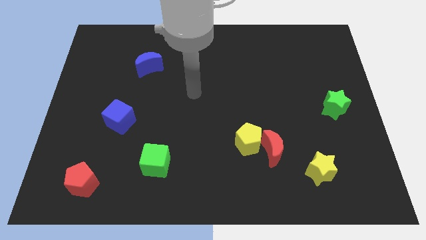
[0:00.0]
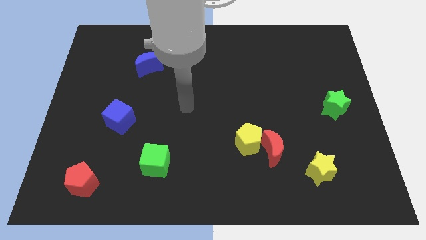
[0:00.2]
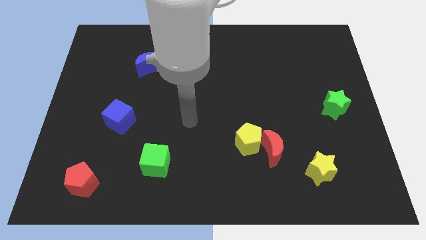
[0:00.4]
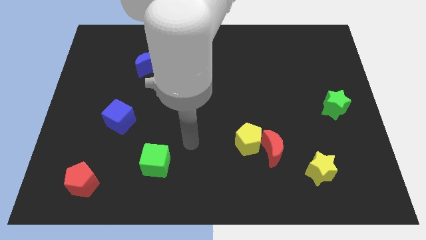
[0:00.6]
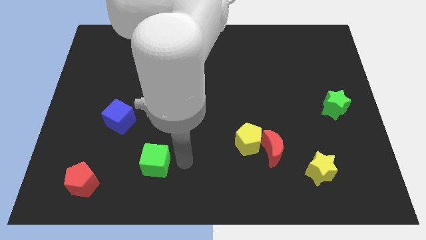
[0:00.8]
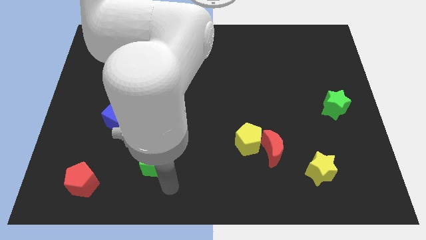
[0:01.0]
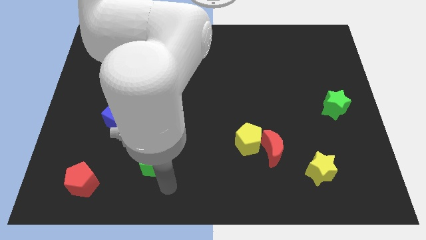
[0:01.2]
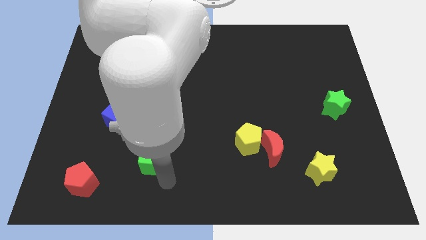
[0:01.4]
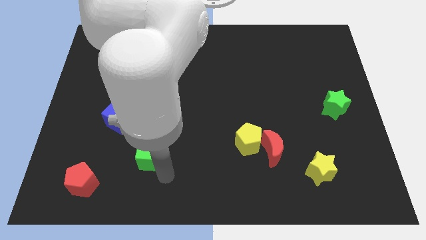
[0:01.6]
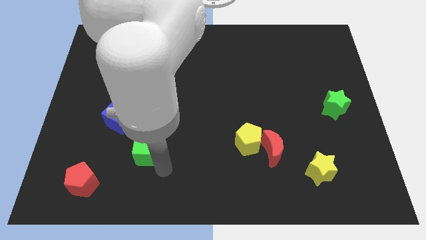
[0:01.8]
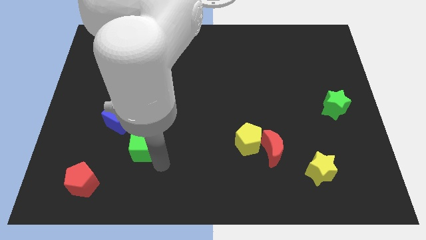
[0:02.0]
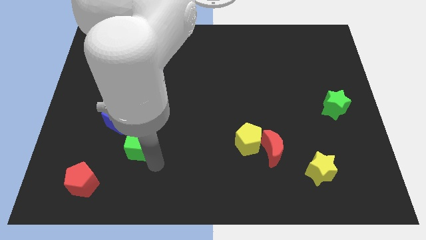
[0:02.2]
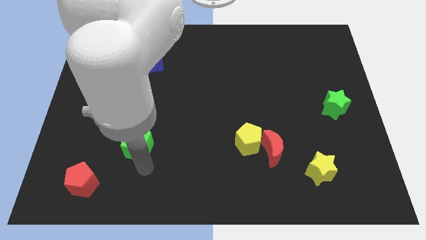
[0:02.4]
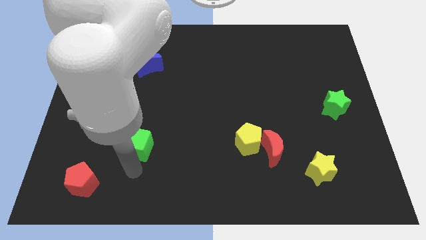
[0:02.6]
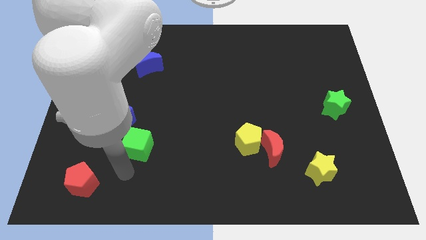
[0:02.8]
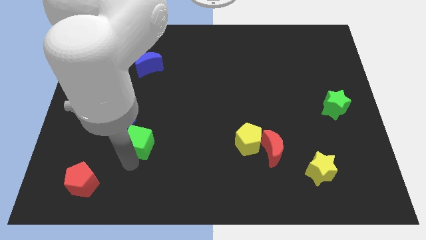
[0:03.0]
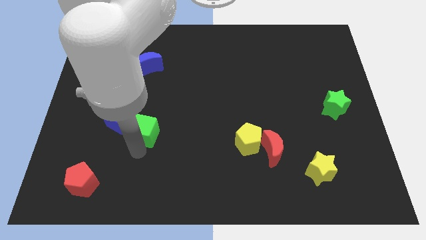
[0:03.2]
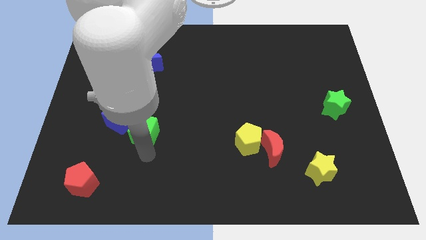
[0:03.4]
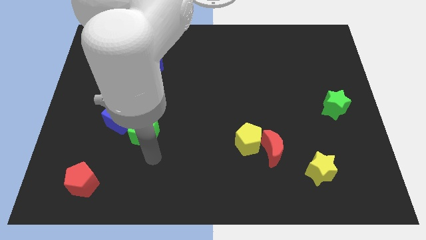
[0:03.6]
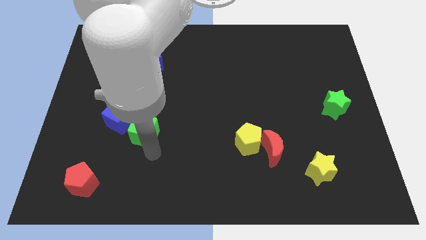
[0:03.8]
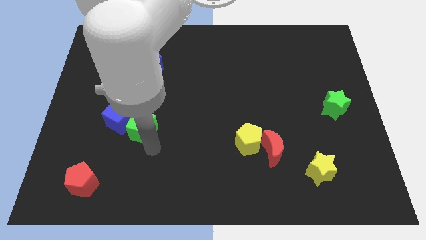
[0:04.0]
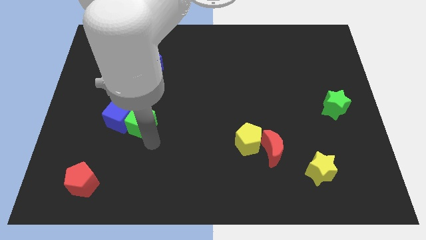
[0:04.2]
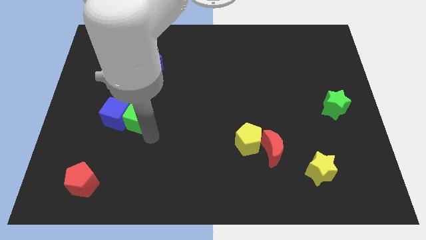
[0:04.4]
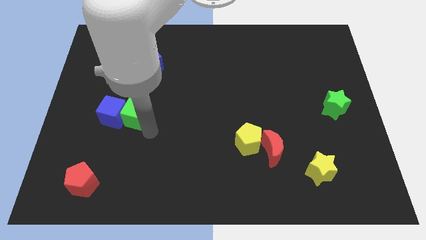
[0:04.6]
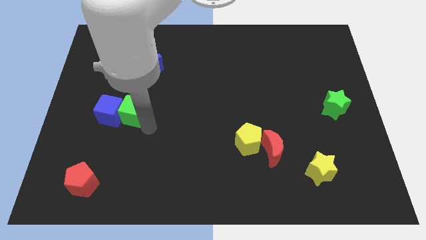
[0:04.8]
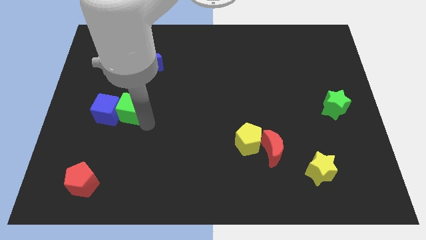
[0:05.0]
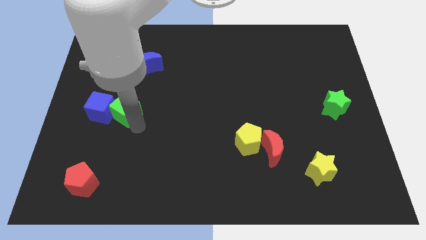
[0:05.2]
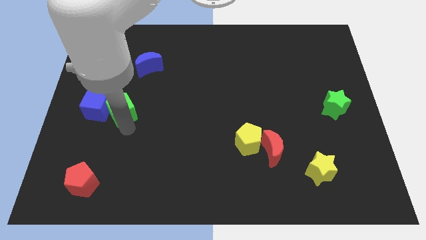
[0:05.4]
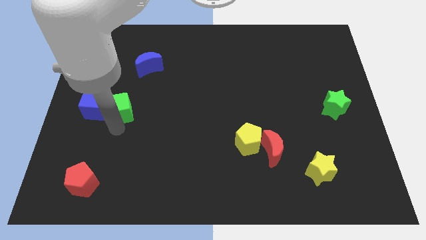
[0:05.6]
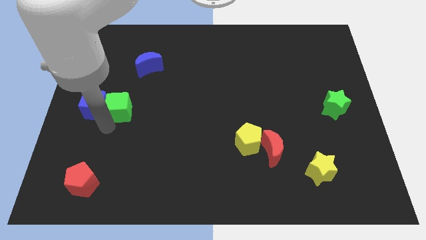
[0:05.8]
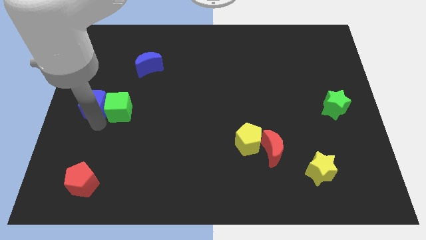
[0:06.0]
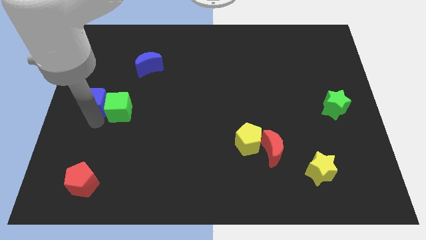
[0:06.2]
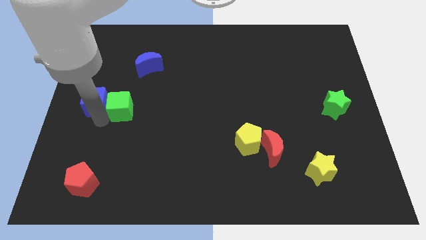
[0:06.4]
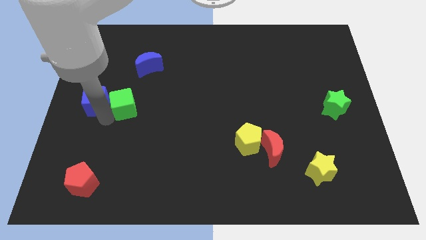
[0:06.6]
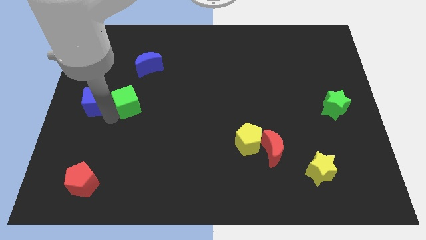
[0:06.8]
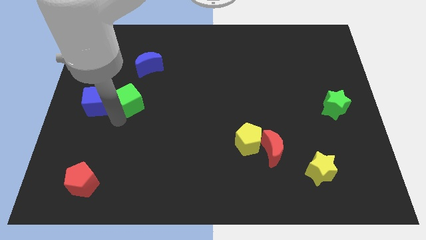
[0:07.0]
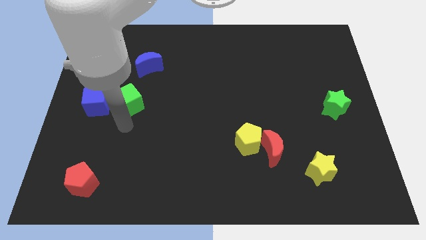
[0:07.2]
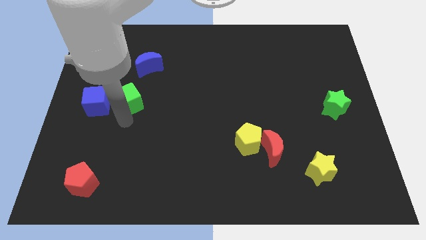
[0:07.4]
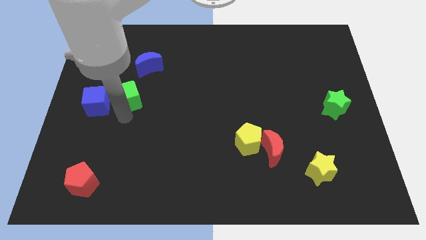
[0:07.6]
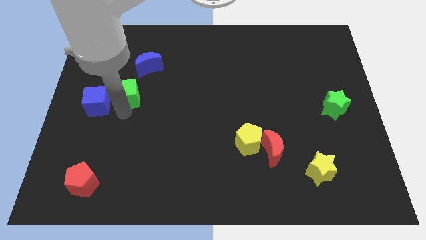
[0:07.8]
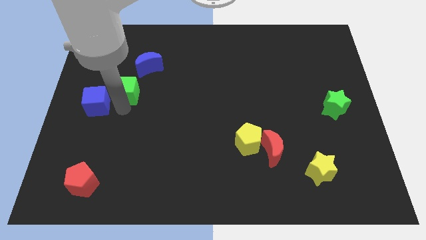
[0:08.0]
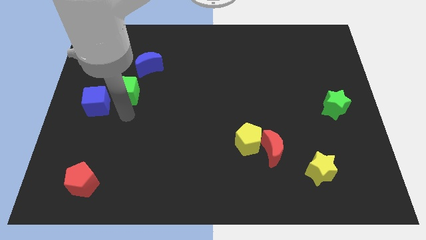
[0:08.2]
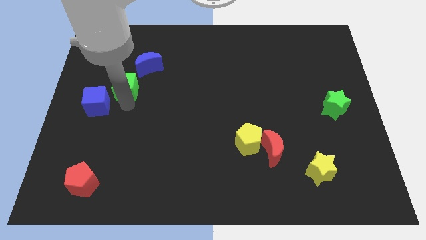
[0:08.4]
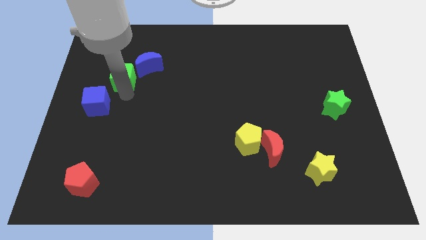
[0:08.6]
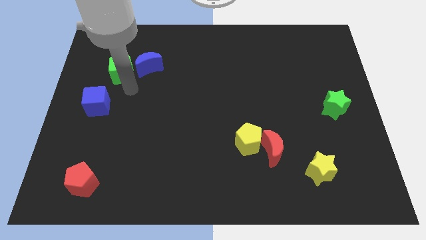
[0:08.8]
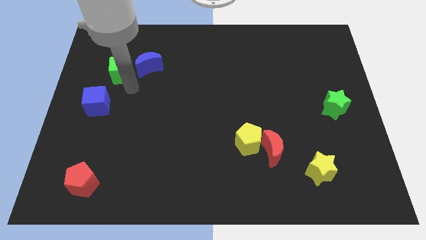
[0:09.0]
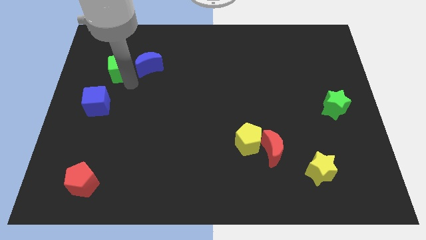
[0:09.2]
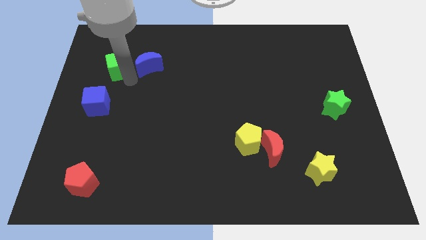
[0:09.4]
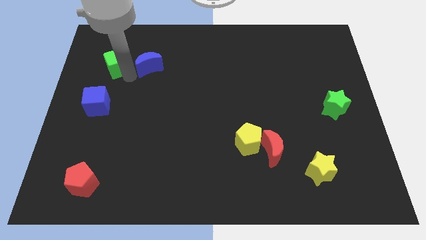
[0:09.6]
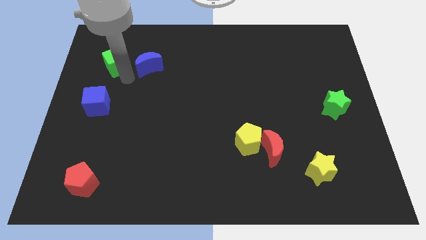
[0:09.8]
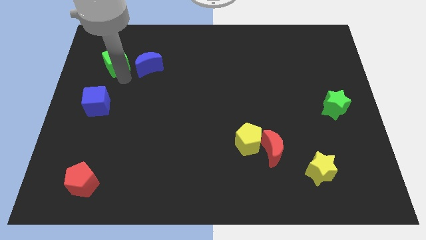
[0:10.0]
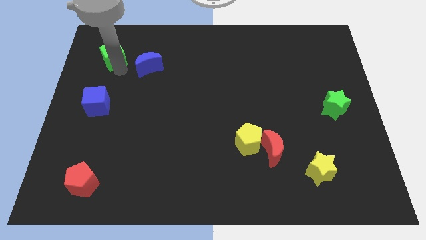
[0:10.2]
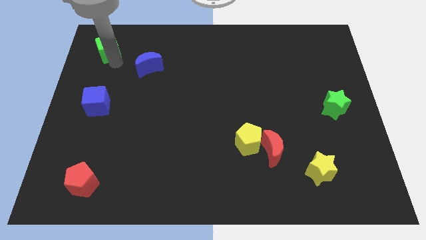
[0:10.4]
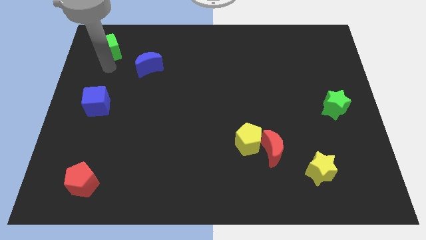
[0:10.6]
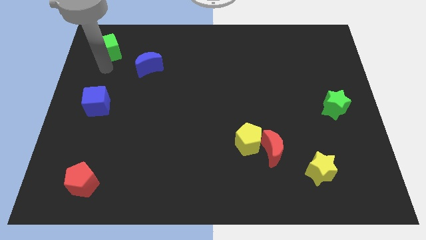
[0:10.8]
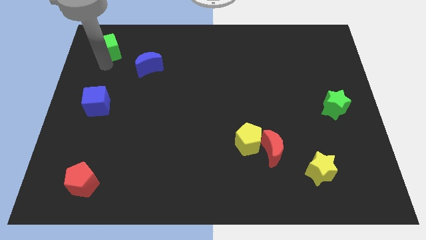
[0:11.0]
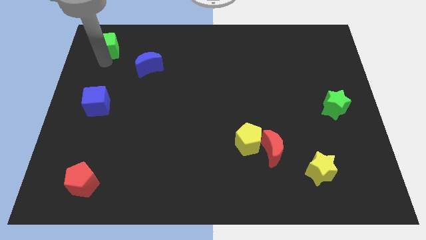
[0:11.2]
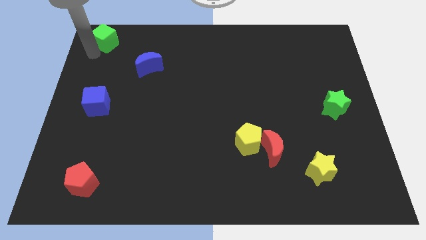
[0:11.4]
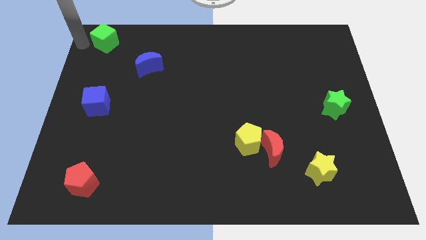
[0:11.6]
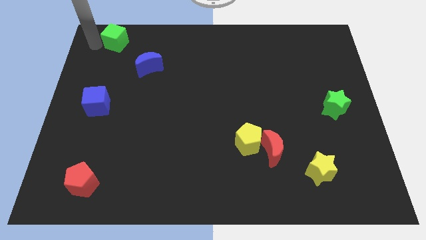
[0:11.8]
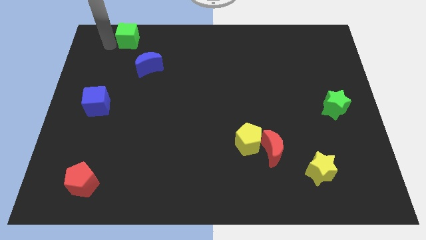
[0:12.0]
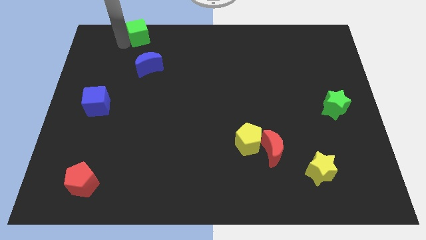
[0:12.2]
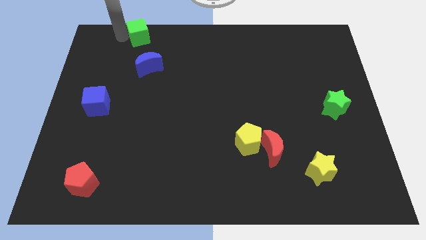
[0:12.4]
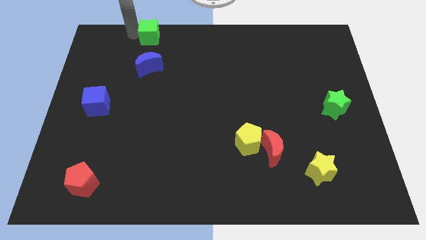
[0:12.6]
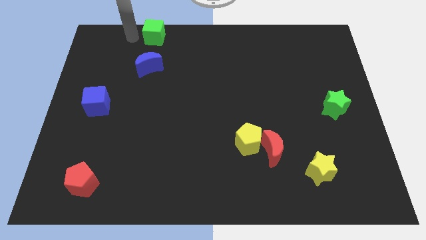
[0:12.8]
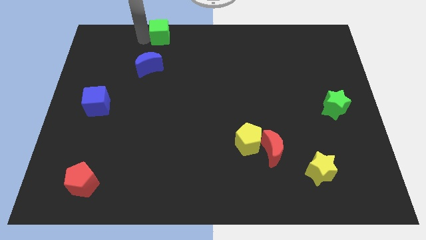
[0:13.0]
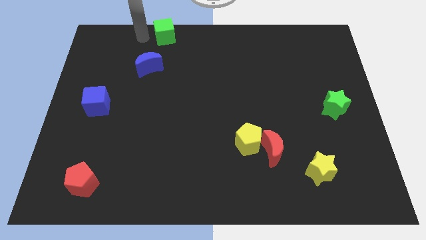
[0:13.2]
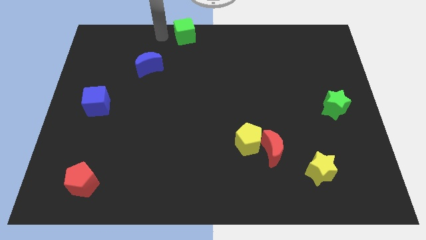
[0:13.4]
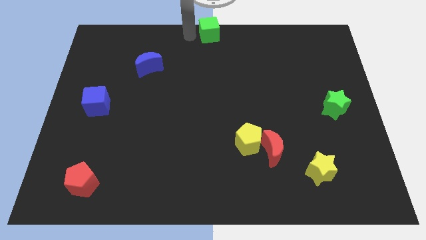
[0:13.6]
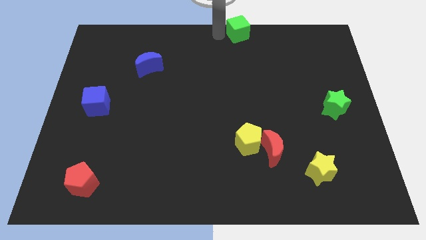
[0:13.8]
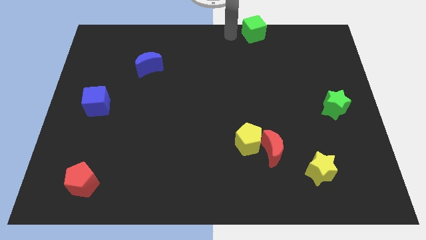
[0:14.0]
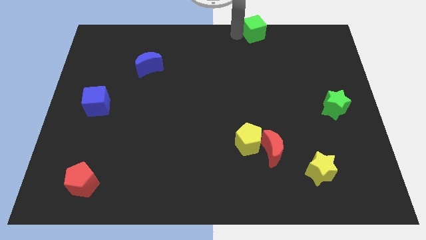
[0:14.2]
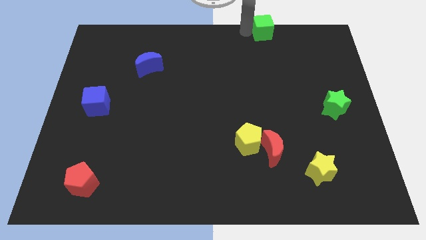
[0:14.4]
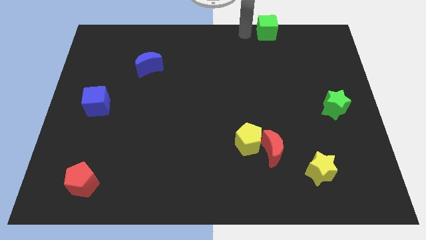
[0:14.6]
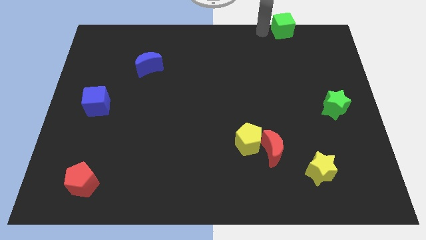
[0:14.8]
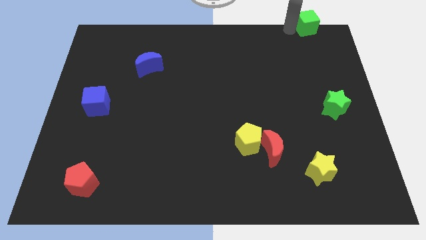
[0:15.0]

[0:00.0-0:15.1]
slide the green cube to the top right corner
